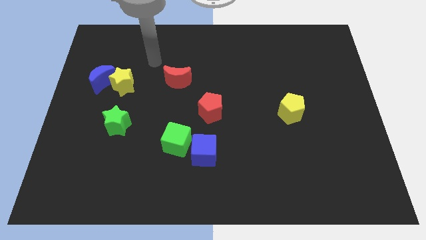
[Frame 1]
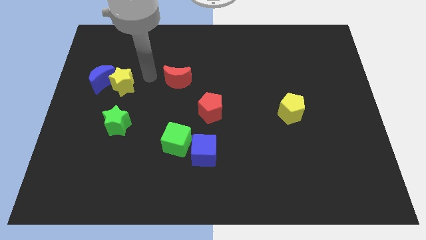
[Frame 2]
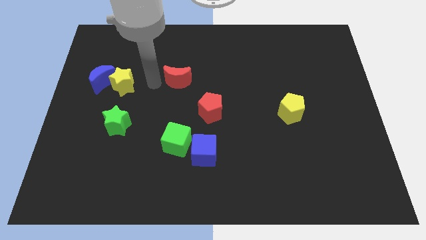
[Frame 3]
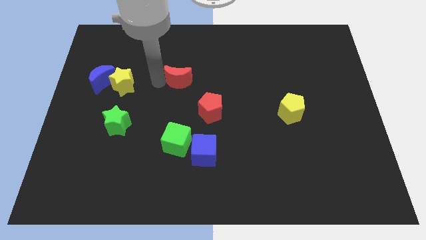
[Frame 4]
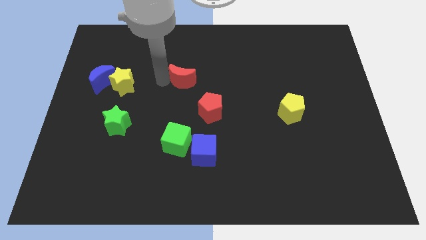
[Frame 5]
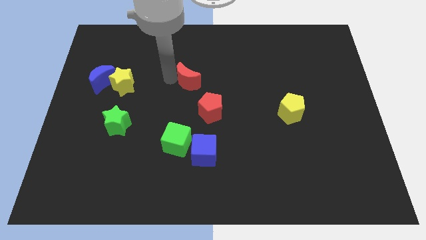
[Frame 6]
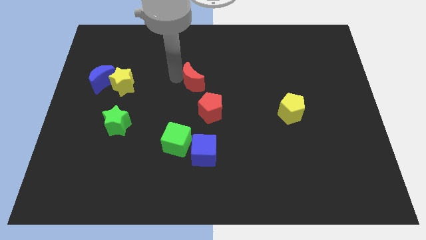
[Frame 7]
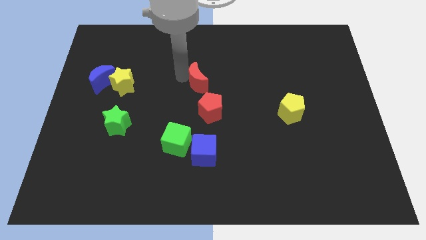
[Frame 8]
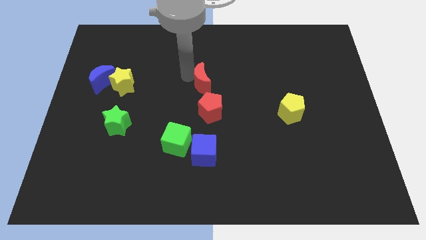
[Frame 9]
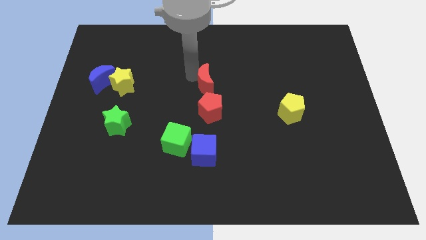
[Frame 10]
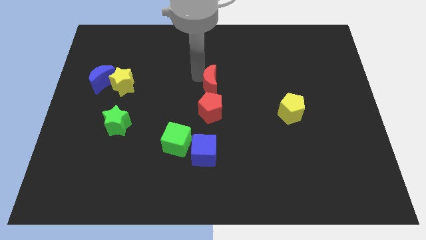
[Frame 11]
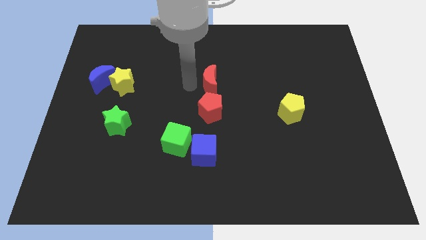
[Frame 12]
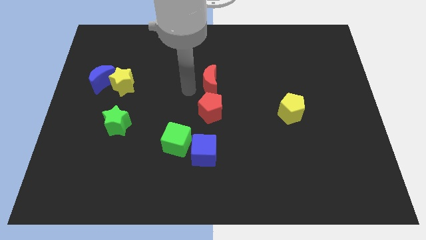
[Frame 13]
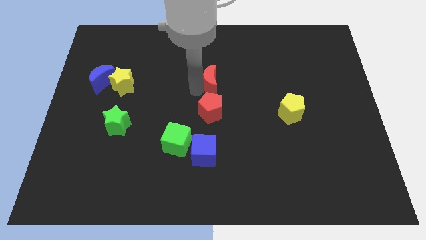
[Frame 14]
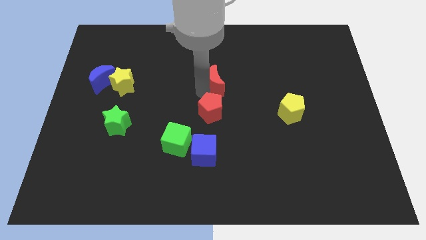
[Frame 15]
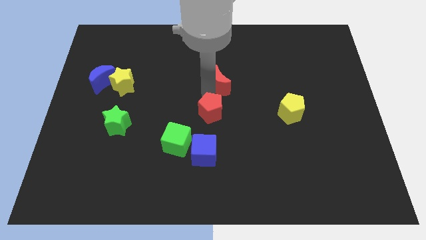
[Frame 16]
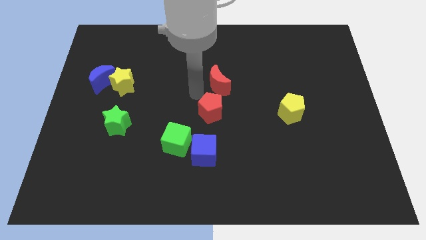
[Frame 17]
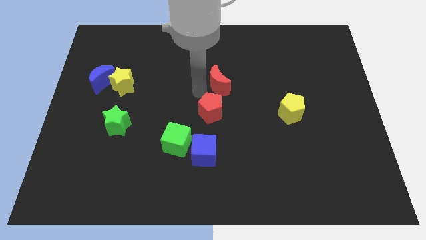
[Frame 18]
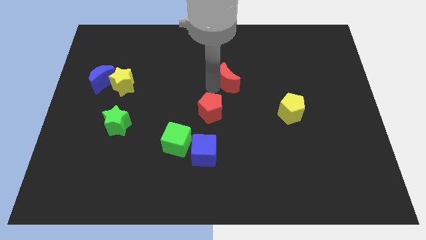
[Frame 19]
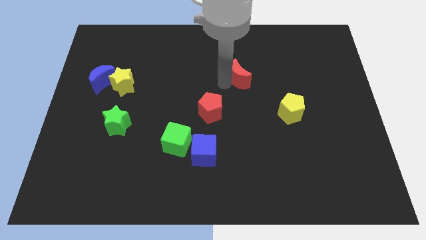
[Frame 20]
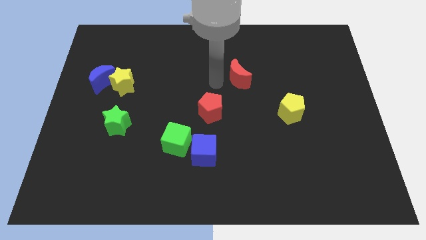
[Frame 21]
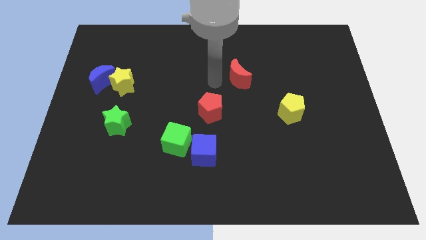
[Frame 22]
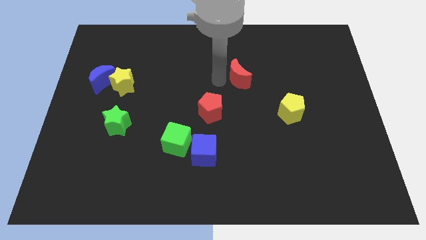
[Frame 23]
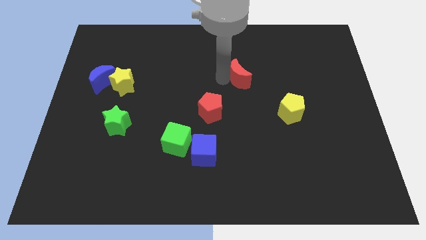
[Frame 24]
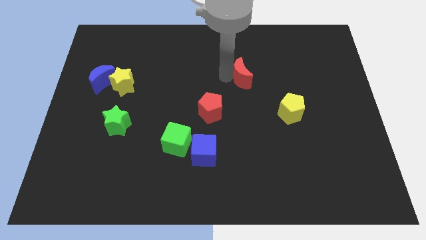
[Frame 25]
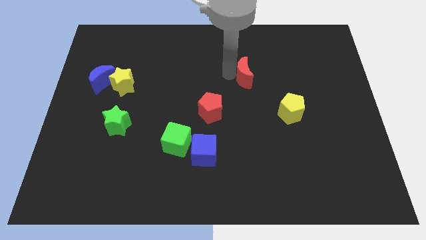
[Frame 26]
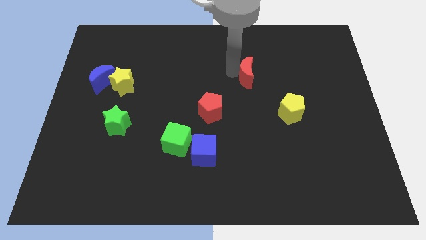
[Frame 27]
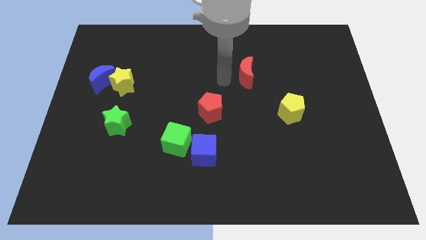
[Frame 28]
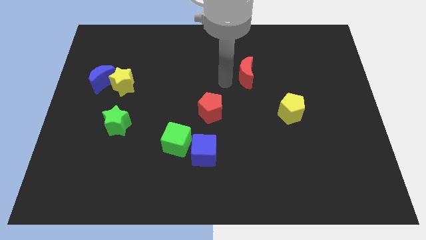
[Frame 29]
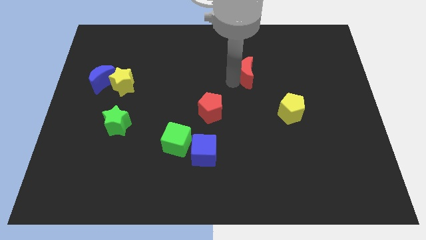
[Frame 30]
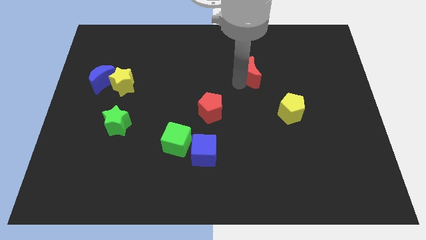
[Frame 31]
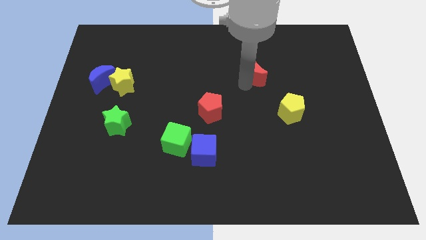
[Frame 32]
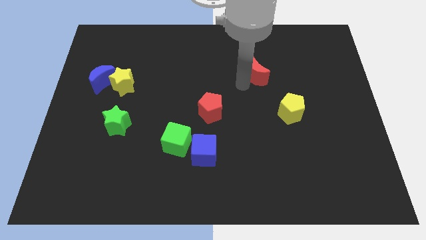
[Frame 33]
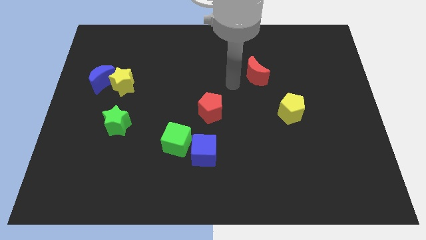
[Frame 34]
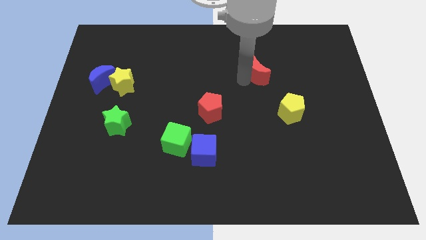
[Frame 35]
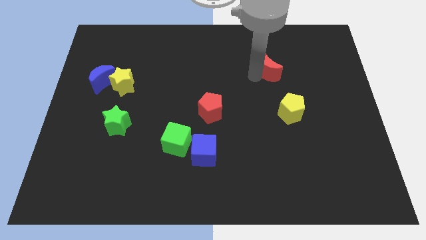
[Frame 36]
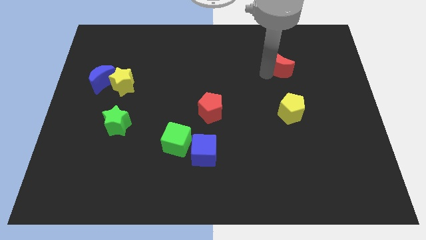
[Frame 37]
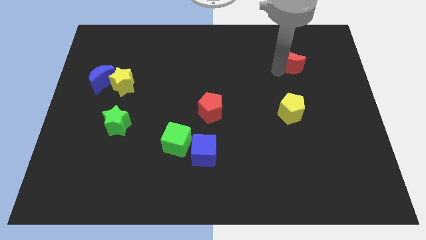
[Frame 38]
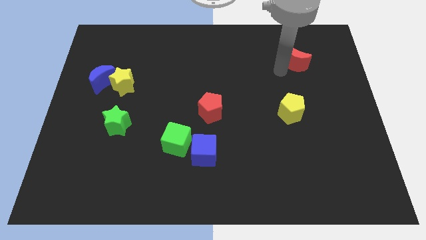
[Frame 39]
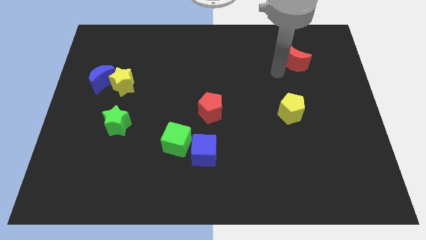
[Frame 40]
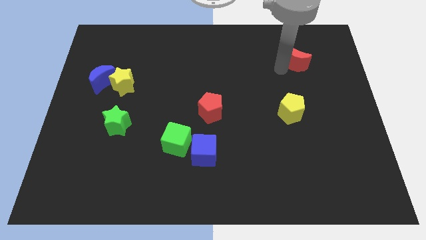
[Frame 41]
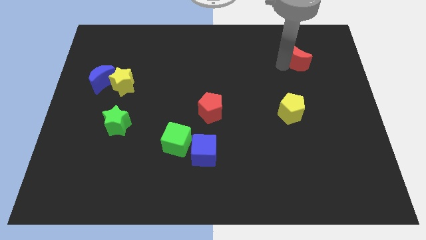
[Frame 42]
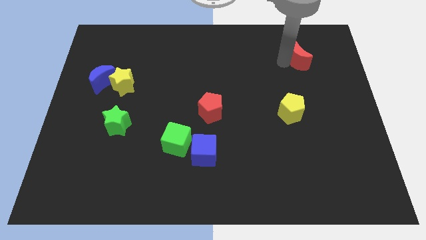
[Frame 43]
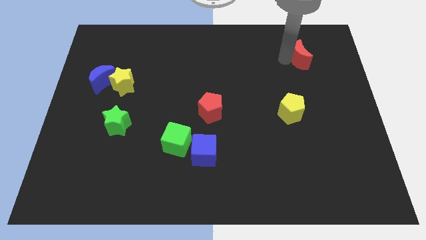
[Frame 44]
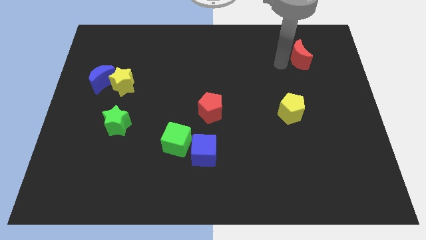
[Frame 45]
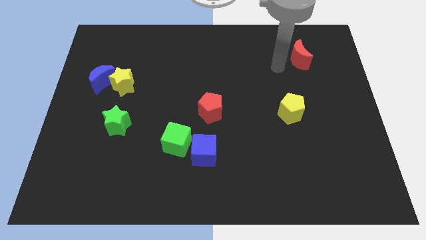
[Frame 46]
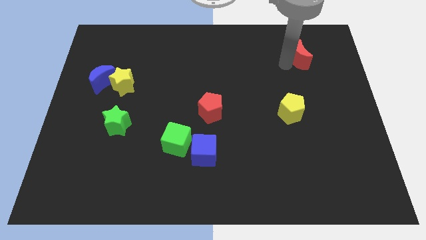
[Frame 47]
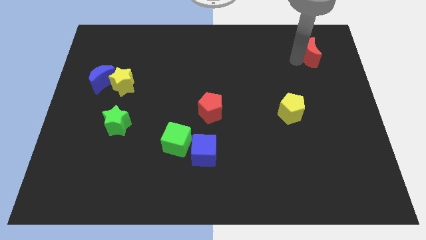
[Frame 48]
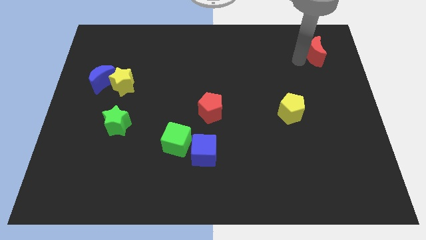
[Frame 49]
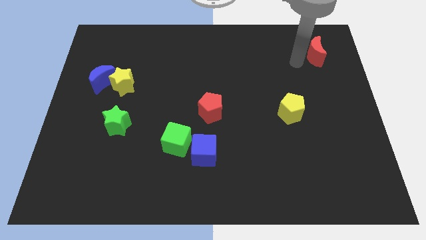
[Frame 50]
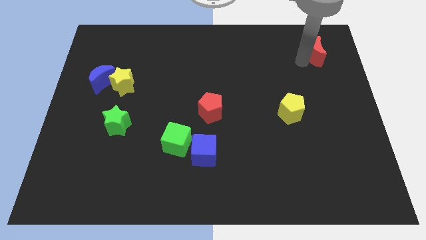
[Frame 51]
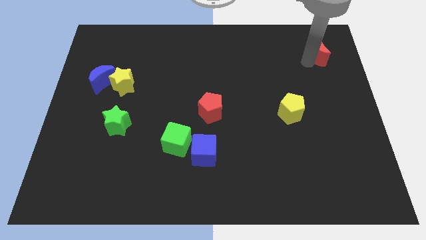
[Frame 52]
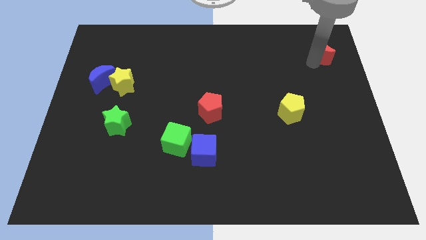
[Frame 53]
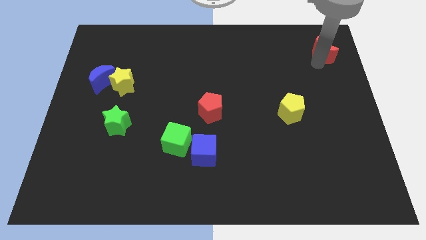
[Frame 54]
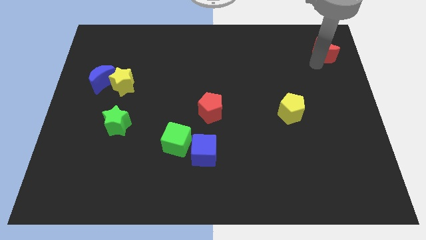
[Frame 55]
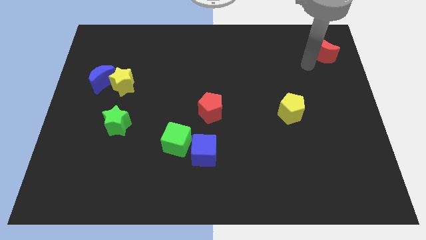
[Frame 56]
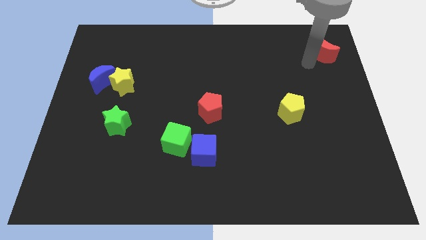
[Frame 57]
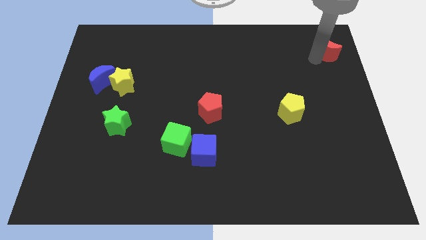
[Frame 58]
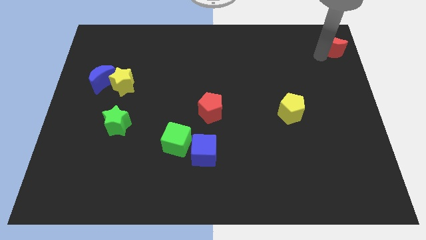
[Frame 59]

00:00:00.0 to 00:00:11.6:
put the red moon to the top right corner
